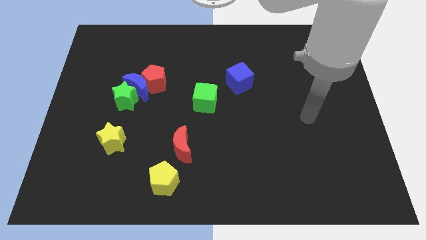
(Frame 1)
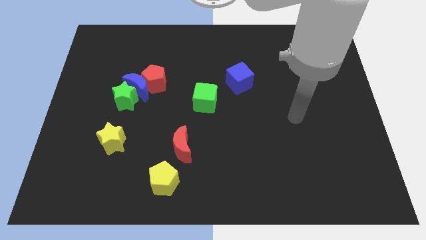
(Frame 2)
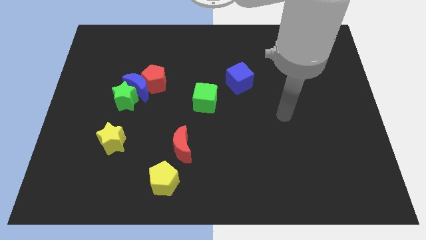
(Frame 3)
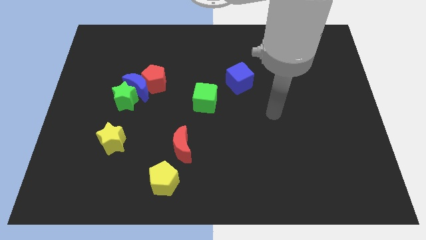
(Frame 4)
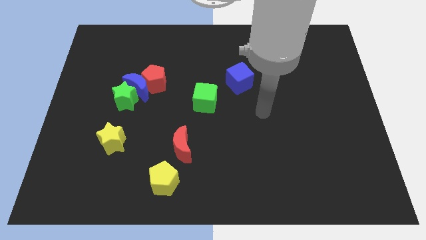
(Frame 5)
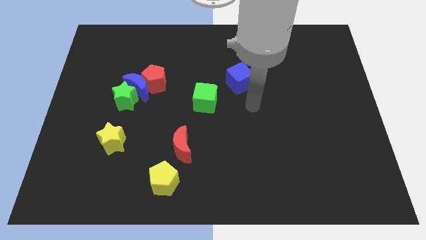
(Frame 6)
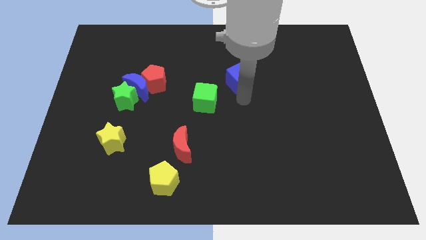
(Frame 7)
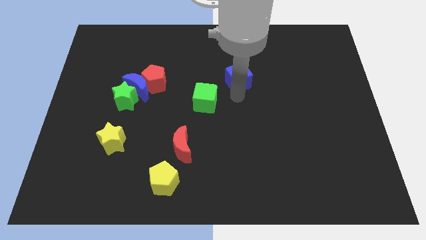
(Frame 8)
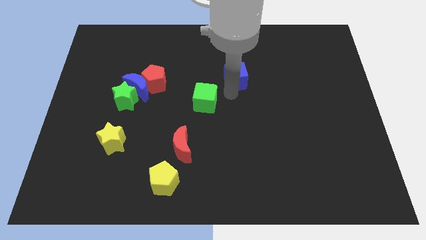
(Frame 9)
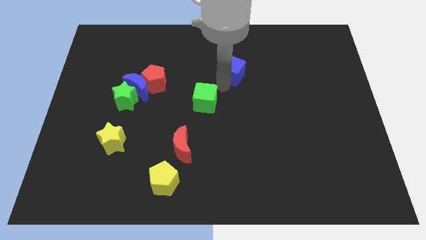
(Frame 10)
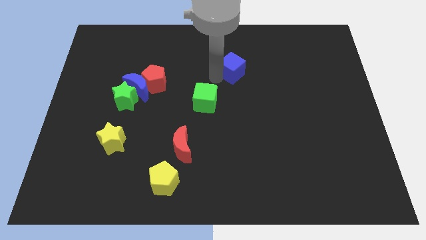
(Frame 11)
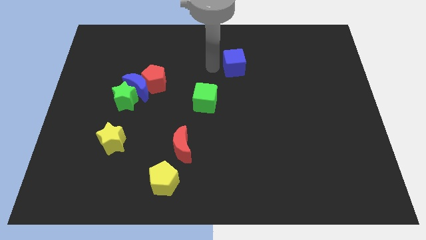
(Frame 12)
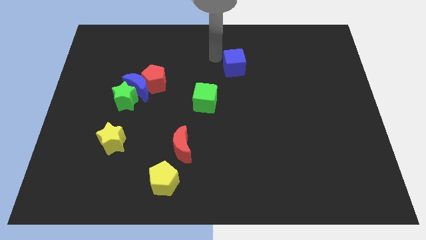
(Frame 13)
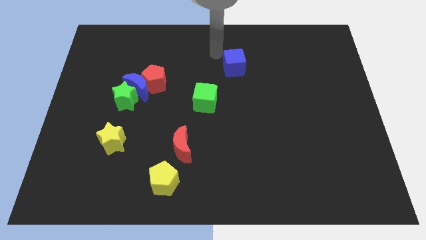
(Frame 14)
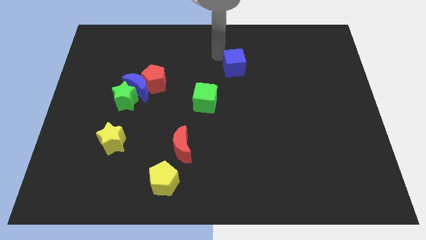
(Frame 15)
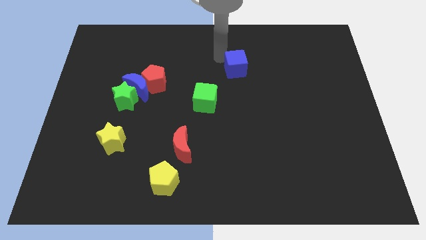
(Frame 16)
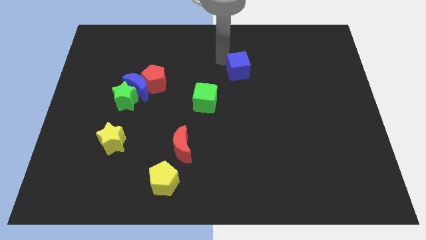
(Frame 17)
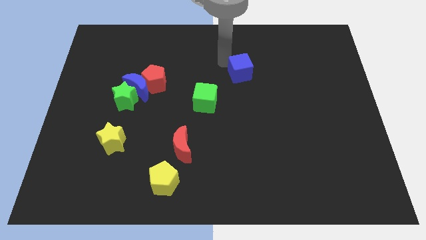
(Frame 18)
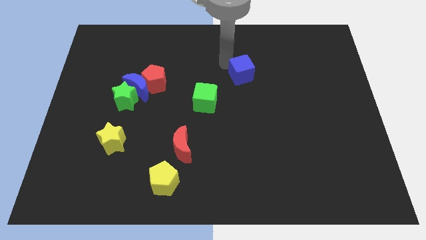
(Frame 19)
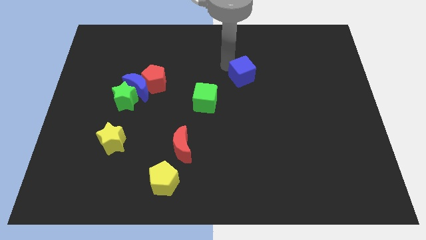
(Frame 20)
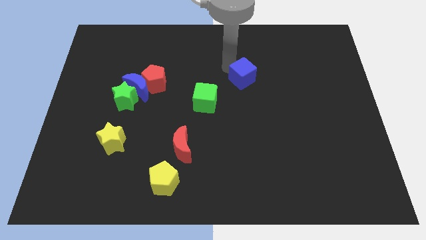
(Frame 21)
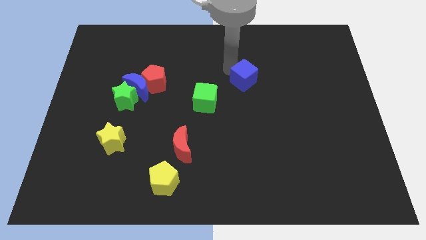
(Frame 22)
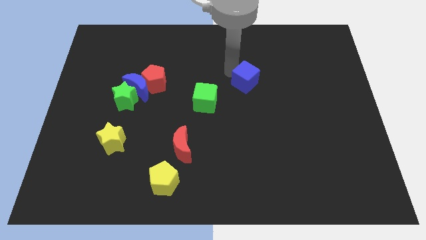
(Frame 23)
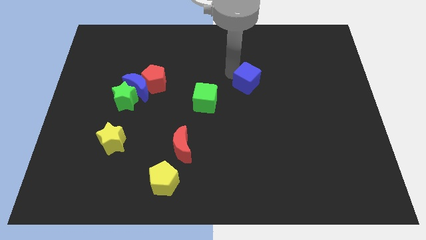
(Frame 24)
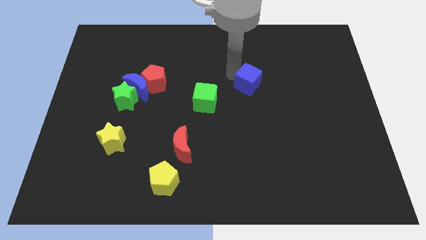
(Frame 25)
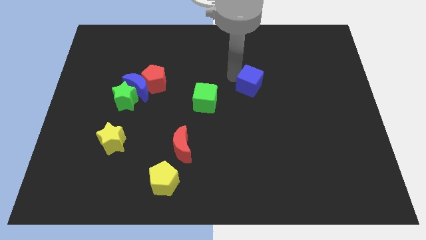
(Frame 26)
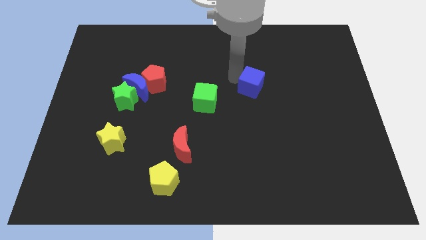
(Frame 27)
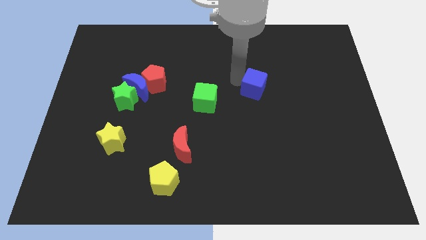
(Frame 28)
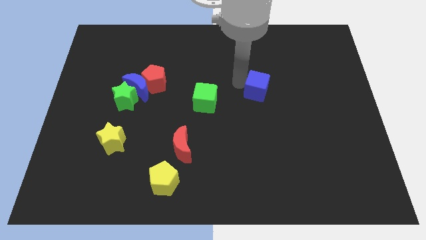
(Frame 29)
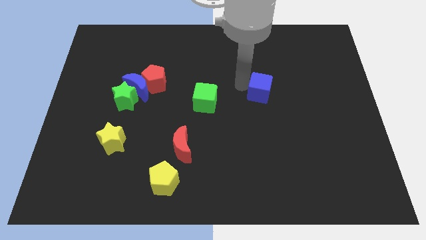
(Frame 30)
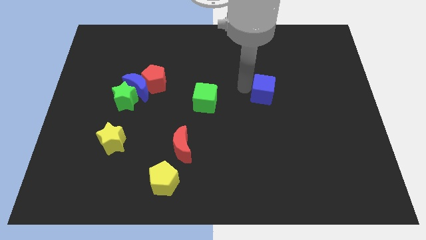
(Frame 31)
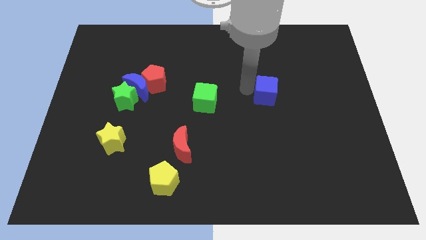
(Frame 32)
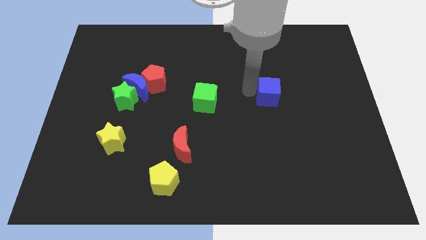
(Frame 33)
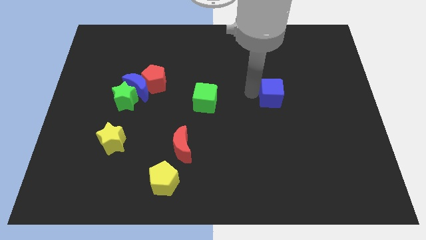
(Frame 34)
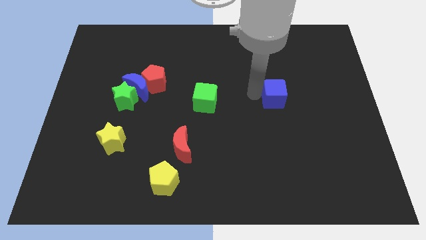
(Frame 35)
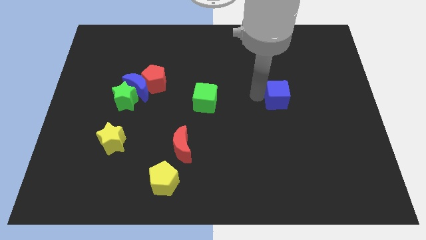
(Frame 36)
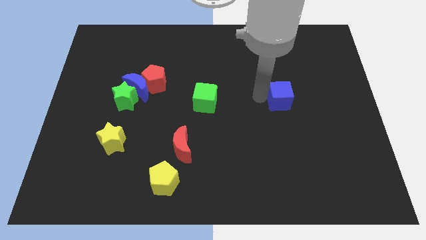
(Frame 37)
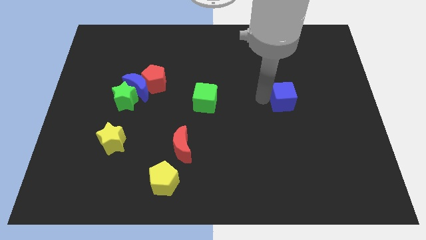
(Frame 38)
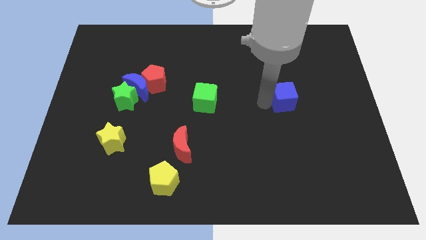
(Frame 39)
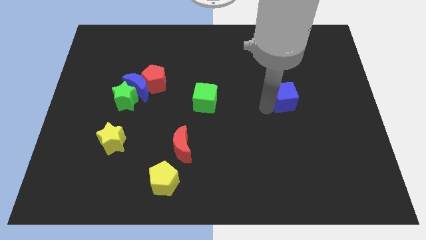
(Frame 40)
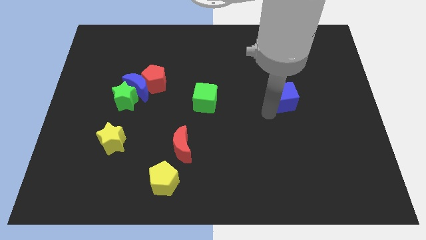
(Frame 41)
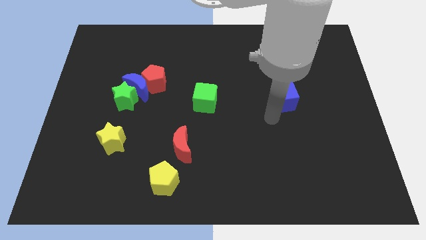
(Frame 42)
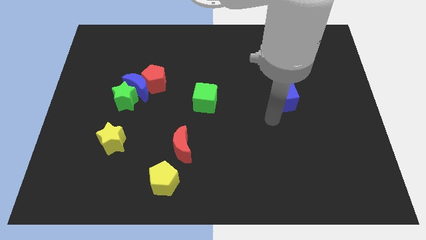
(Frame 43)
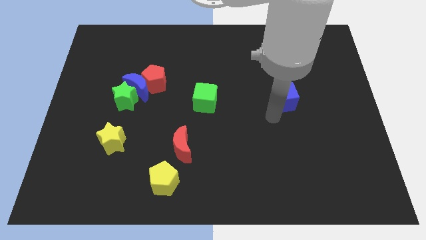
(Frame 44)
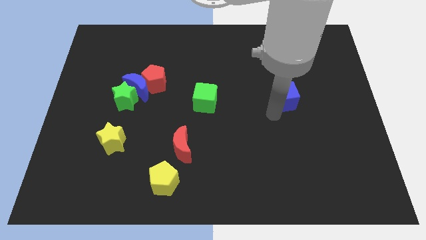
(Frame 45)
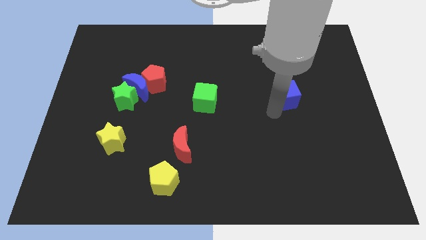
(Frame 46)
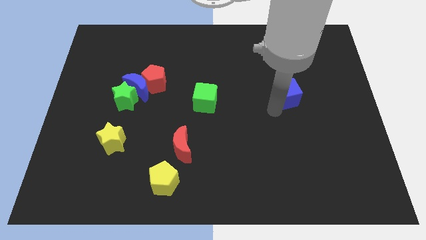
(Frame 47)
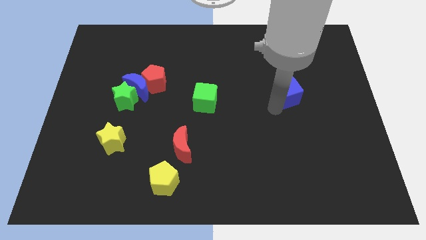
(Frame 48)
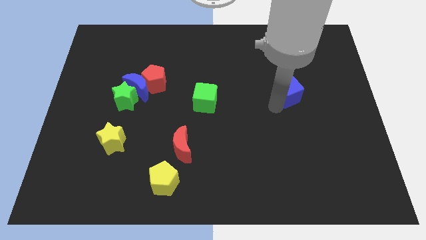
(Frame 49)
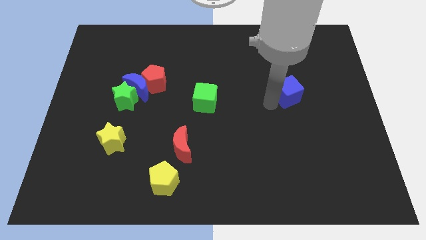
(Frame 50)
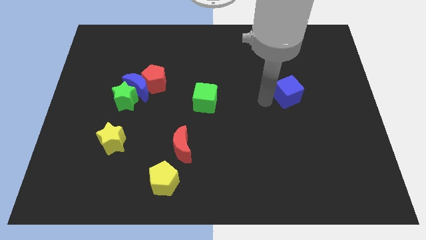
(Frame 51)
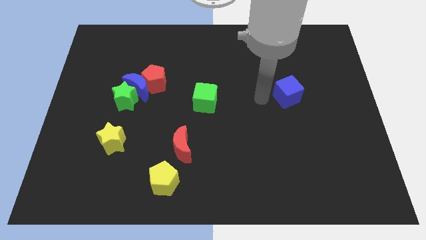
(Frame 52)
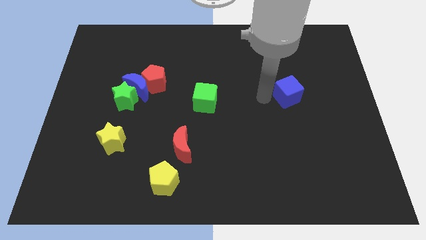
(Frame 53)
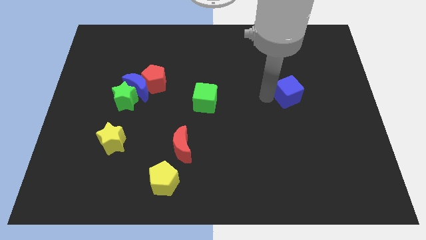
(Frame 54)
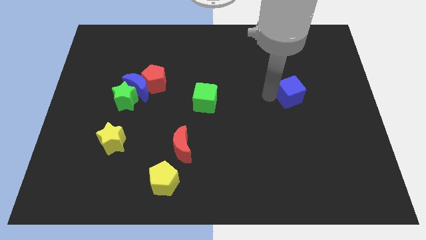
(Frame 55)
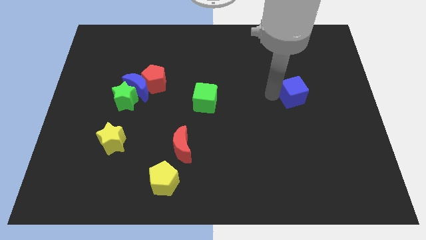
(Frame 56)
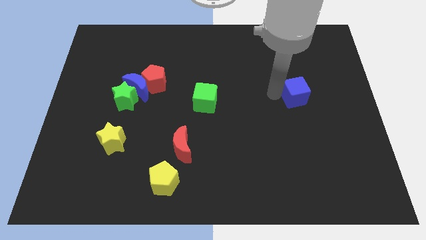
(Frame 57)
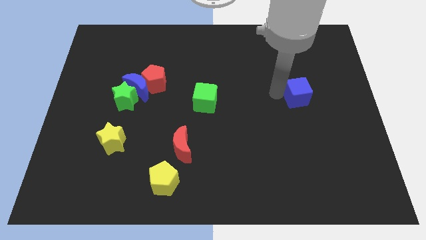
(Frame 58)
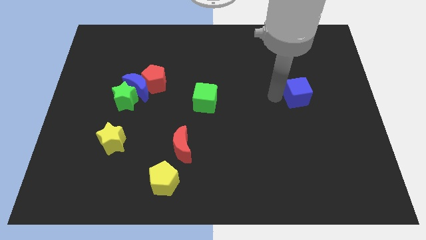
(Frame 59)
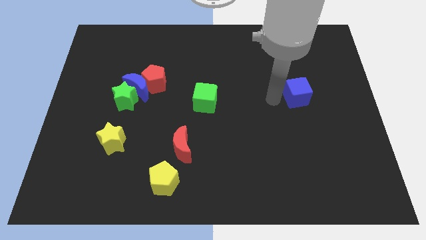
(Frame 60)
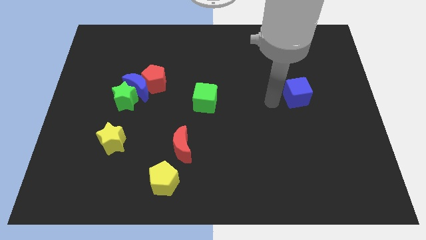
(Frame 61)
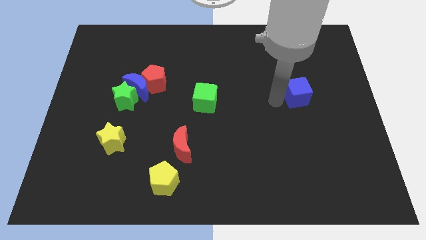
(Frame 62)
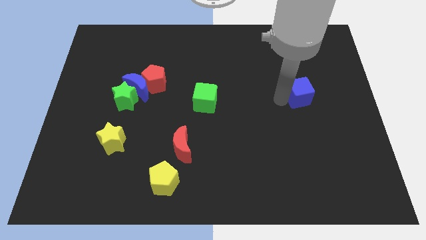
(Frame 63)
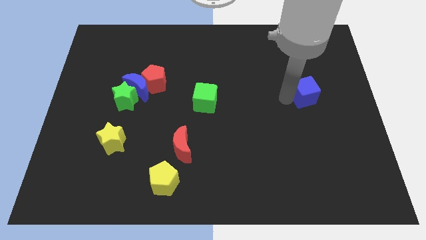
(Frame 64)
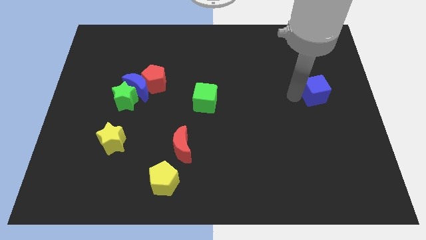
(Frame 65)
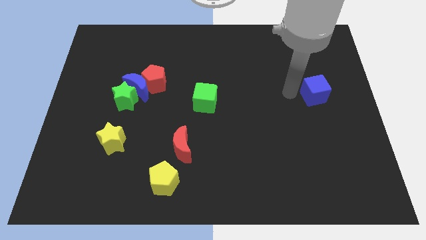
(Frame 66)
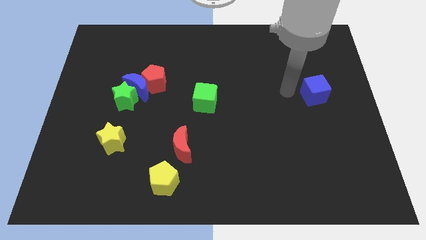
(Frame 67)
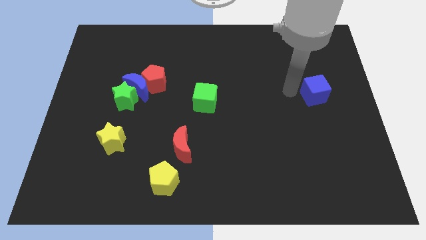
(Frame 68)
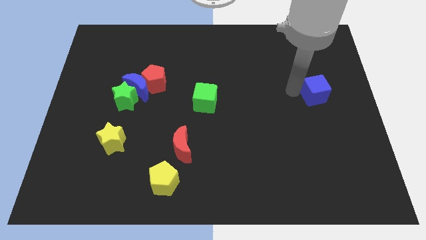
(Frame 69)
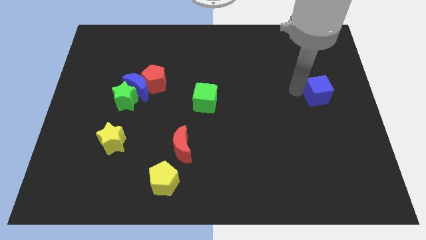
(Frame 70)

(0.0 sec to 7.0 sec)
push the blue cube to the center right

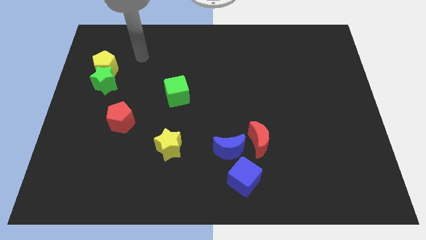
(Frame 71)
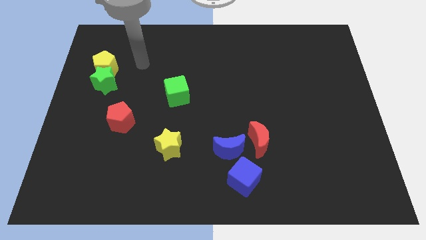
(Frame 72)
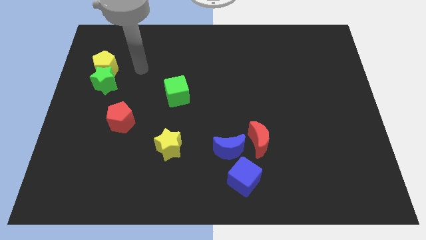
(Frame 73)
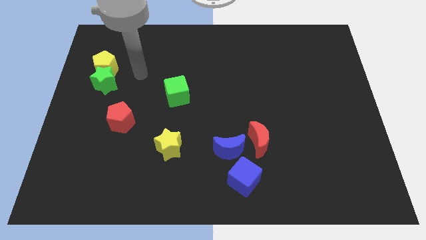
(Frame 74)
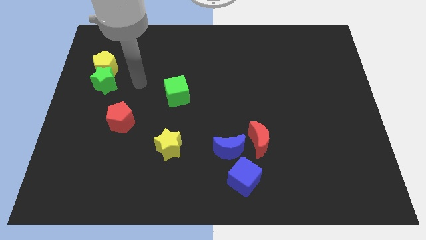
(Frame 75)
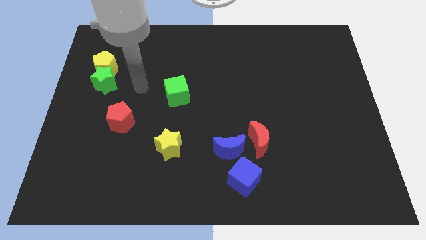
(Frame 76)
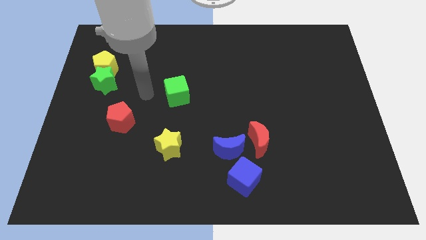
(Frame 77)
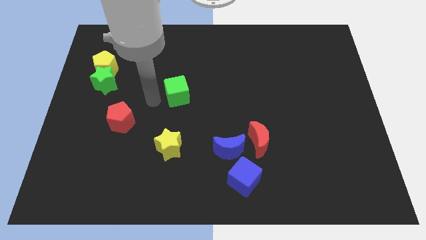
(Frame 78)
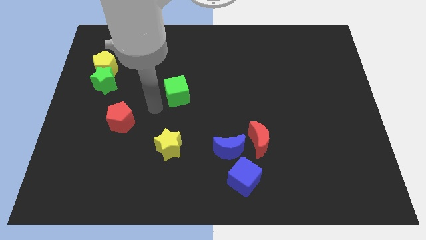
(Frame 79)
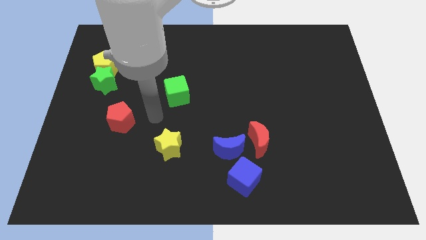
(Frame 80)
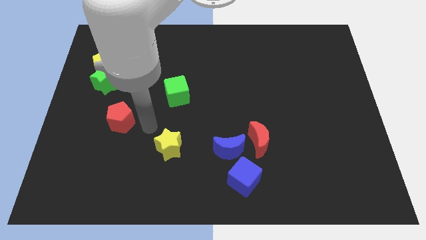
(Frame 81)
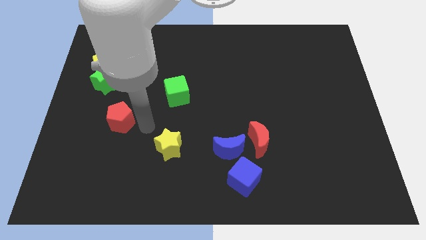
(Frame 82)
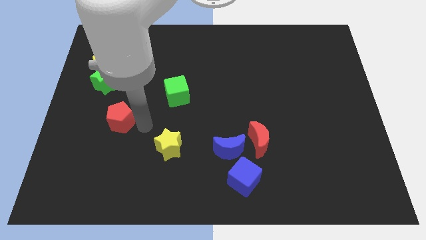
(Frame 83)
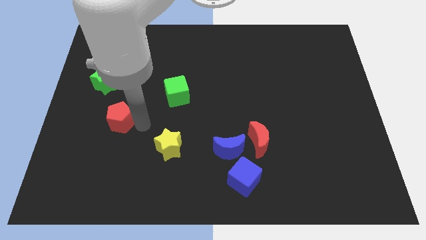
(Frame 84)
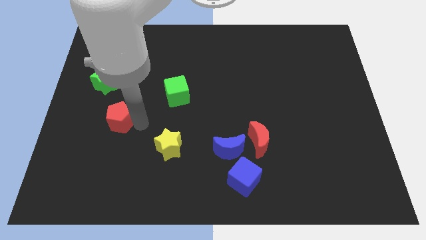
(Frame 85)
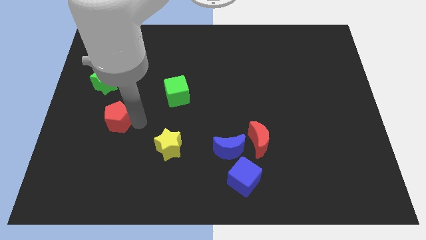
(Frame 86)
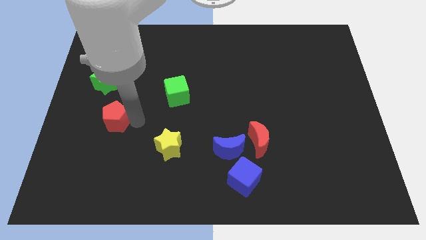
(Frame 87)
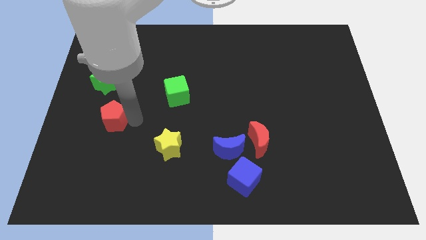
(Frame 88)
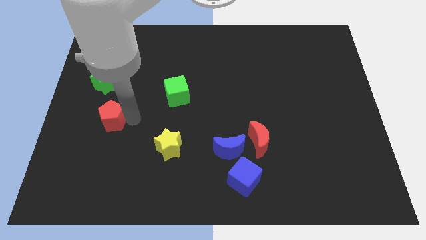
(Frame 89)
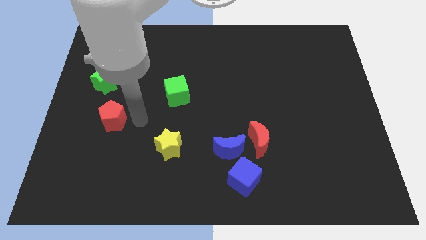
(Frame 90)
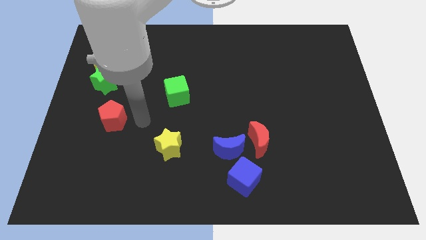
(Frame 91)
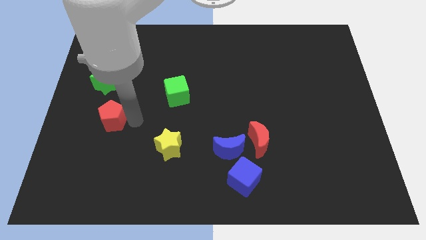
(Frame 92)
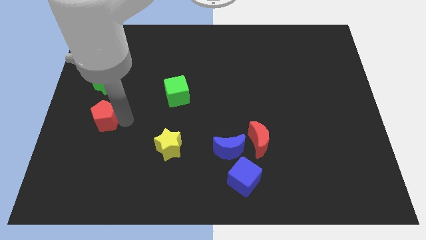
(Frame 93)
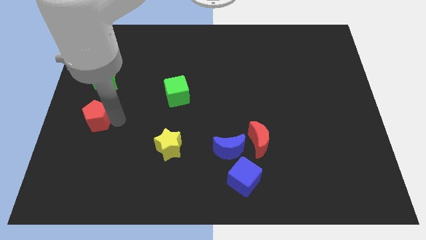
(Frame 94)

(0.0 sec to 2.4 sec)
push the red pentagon to the center left
